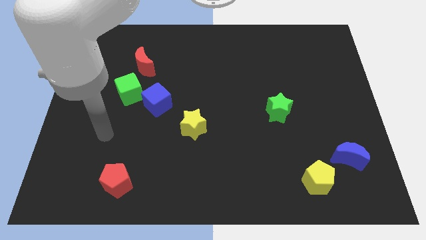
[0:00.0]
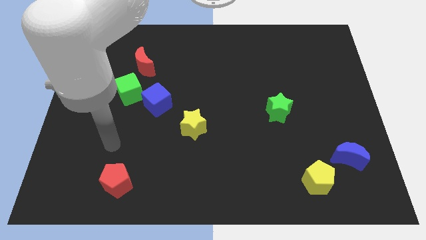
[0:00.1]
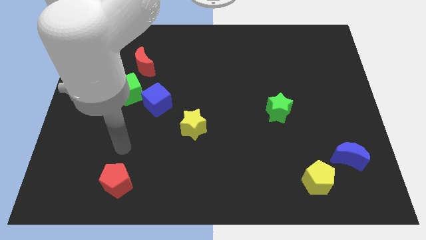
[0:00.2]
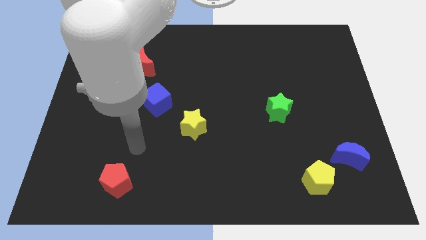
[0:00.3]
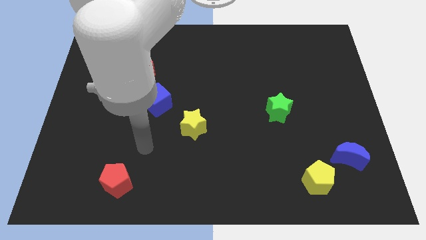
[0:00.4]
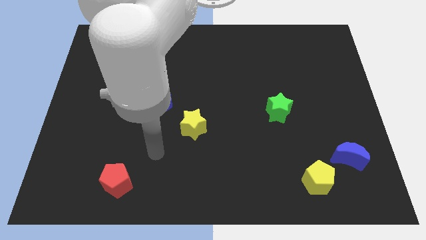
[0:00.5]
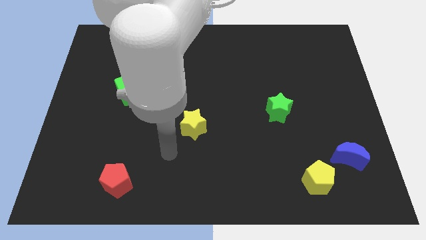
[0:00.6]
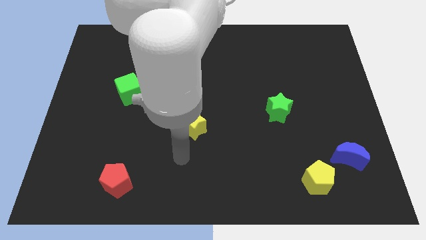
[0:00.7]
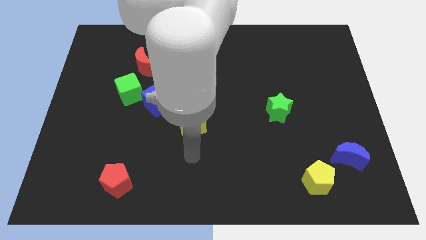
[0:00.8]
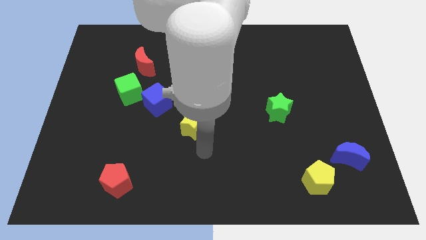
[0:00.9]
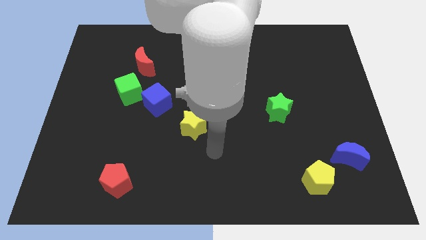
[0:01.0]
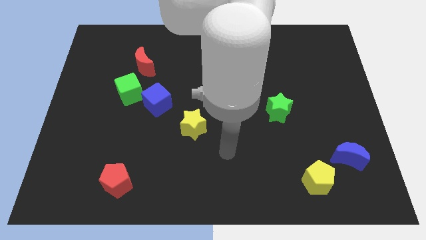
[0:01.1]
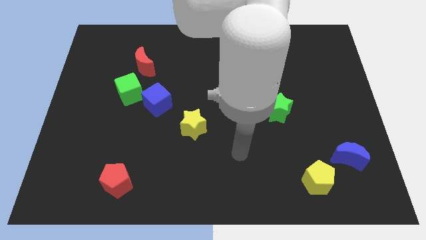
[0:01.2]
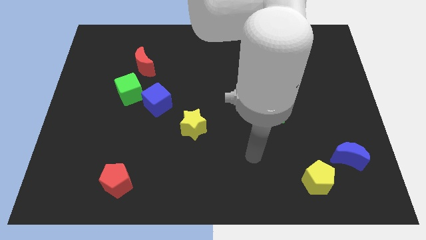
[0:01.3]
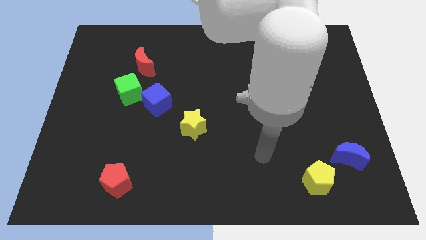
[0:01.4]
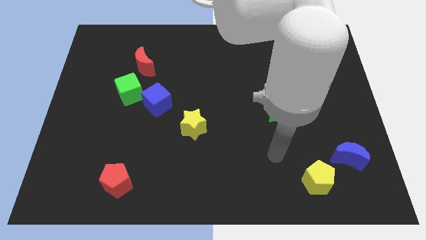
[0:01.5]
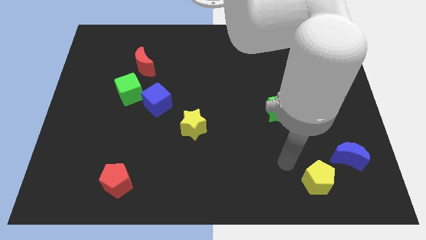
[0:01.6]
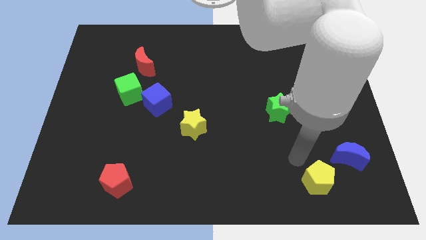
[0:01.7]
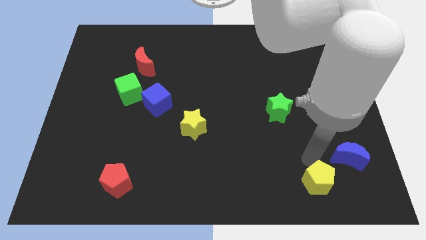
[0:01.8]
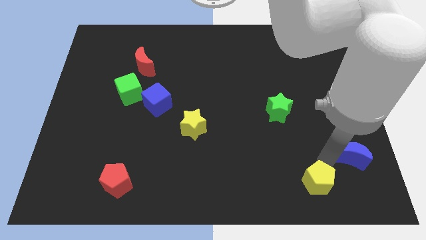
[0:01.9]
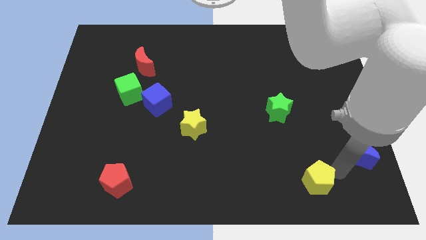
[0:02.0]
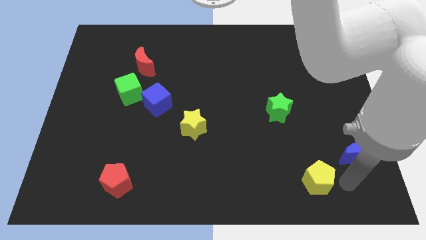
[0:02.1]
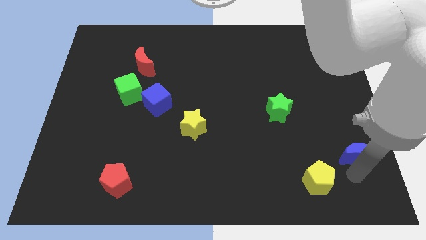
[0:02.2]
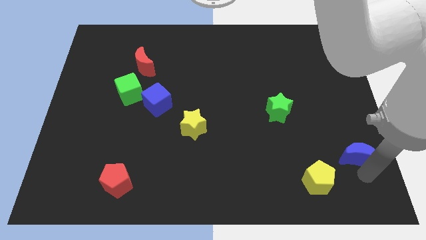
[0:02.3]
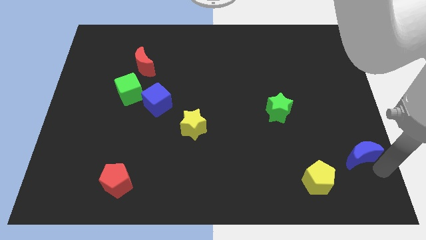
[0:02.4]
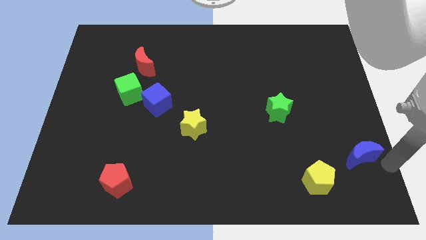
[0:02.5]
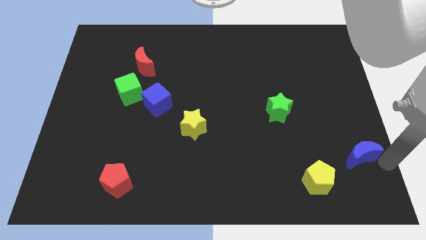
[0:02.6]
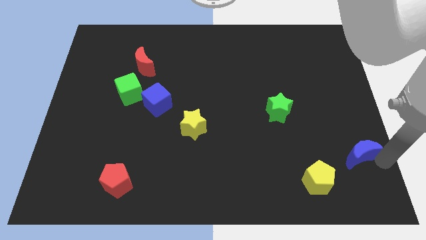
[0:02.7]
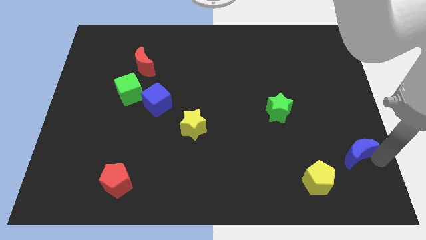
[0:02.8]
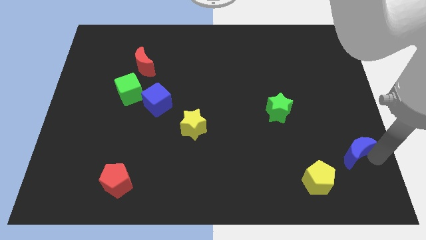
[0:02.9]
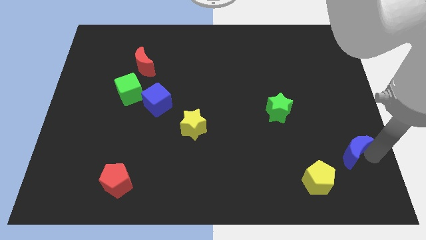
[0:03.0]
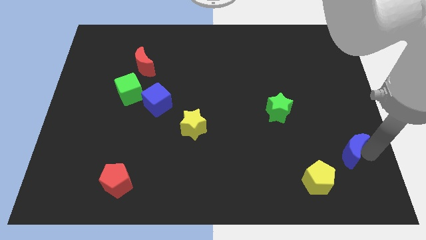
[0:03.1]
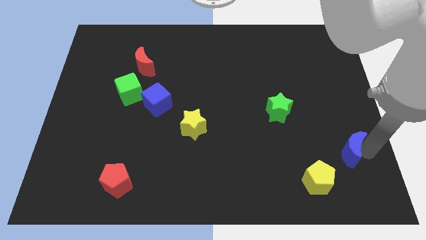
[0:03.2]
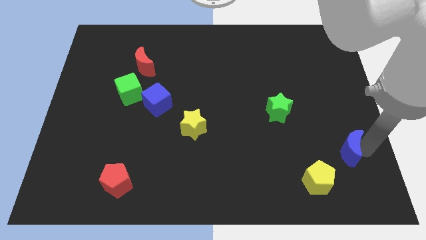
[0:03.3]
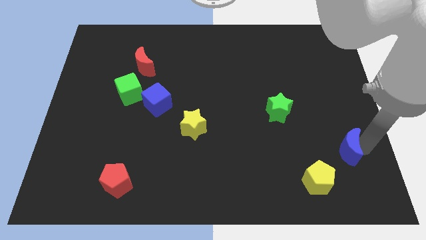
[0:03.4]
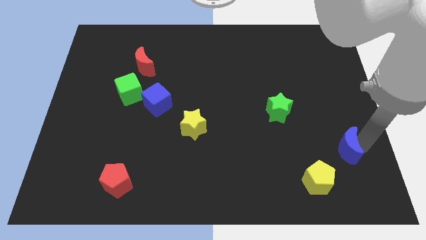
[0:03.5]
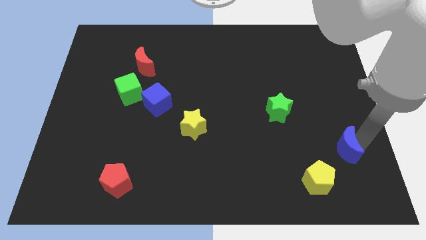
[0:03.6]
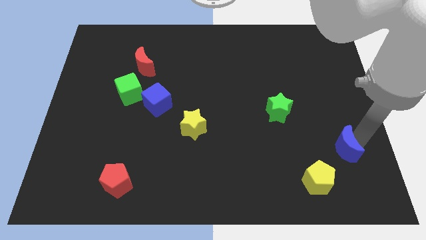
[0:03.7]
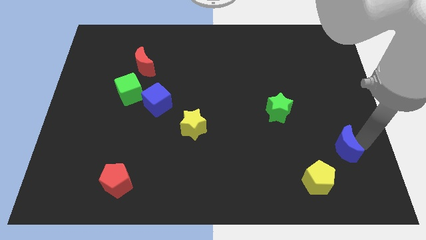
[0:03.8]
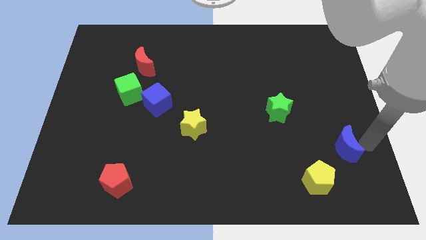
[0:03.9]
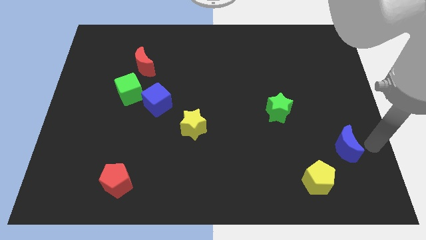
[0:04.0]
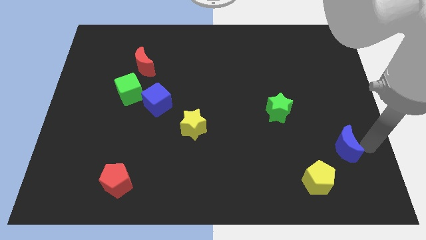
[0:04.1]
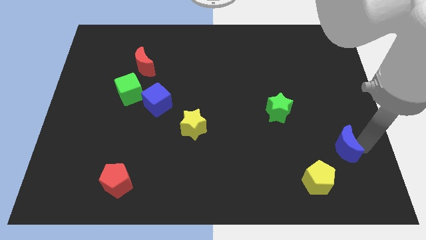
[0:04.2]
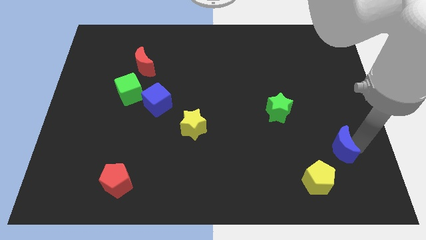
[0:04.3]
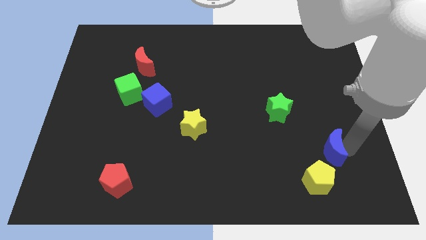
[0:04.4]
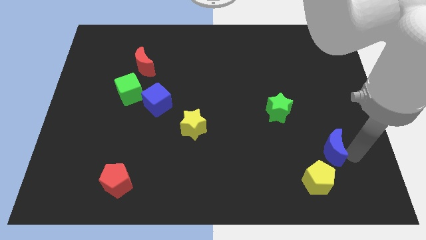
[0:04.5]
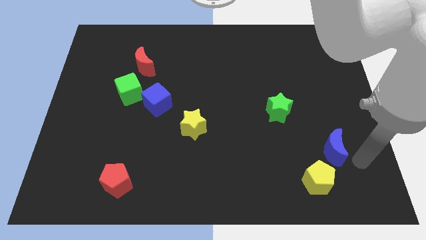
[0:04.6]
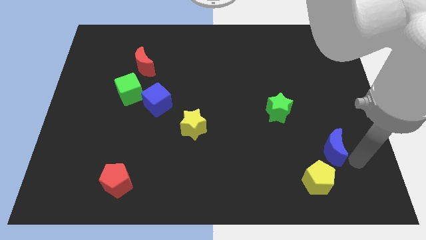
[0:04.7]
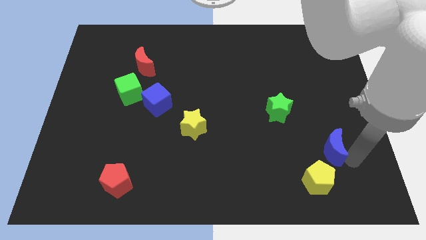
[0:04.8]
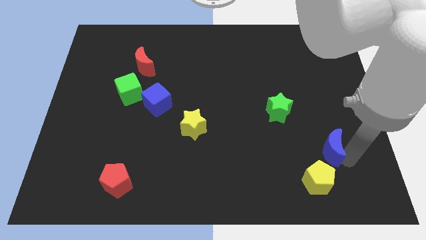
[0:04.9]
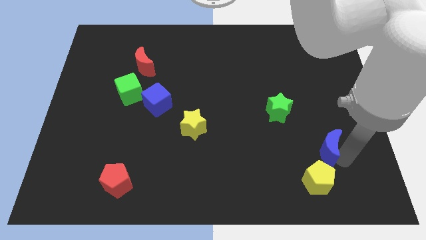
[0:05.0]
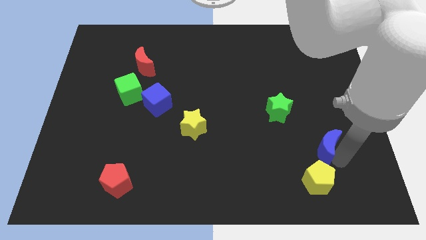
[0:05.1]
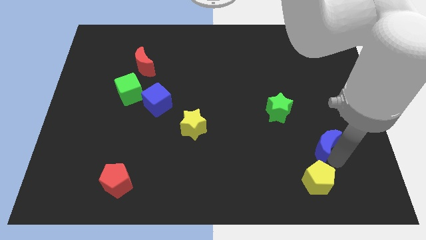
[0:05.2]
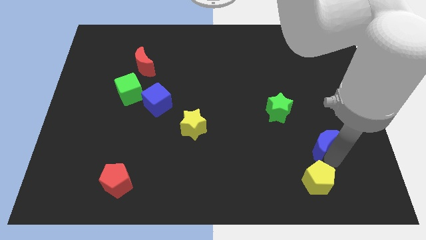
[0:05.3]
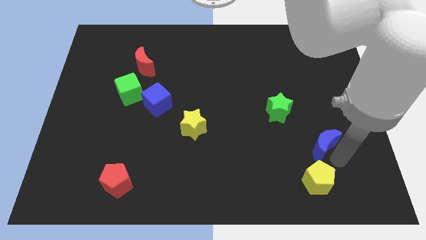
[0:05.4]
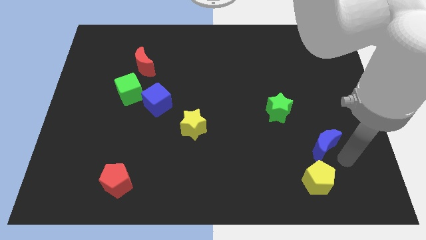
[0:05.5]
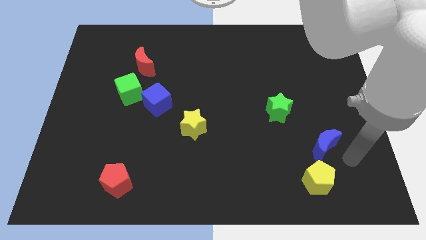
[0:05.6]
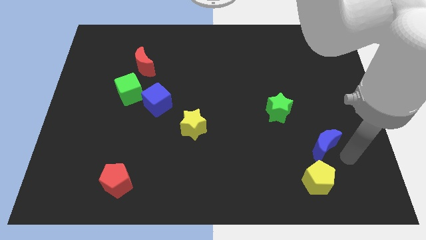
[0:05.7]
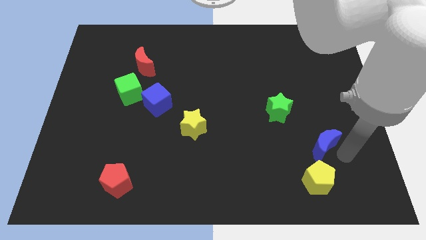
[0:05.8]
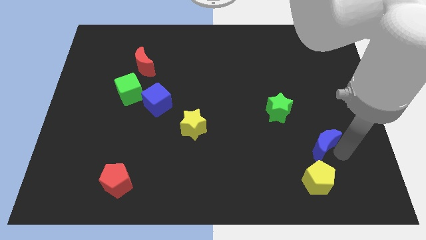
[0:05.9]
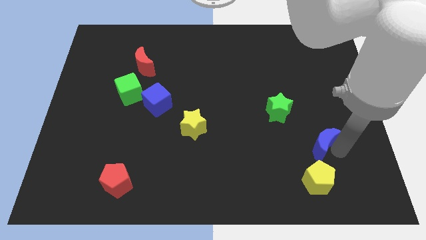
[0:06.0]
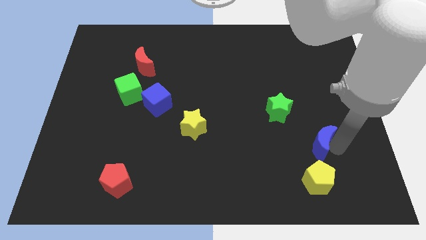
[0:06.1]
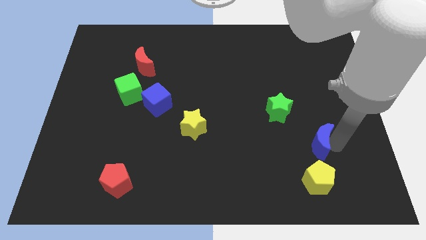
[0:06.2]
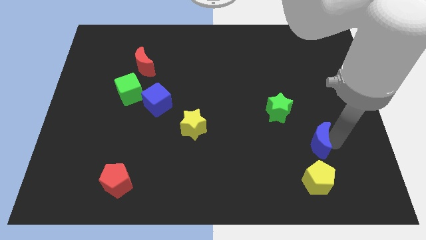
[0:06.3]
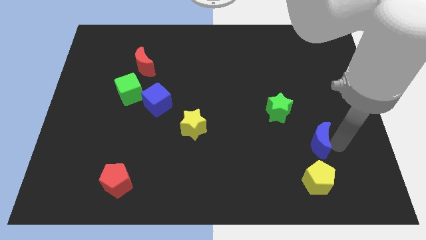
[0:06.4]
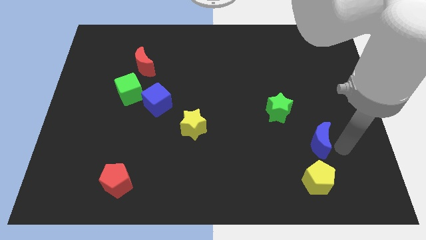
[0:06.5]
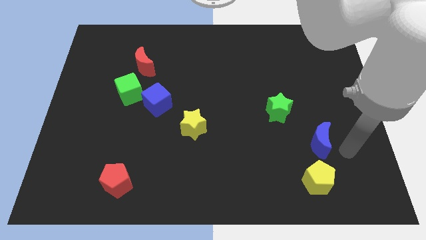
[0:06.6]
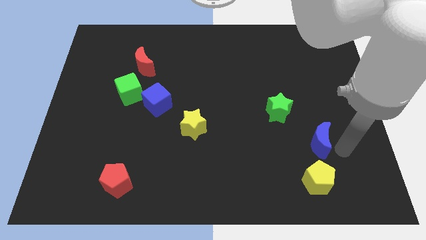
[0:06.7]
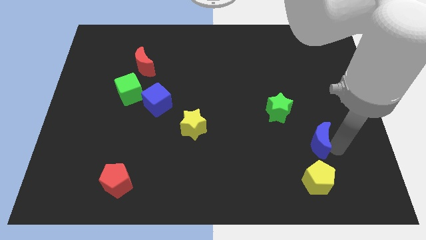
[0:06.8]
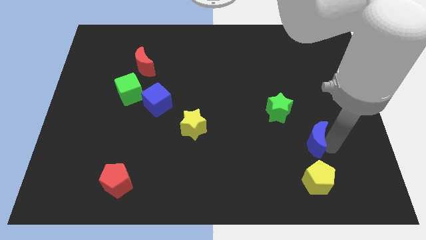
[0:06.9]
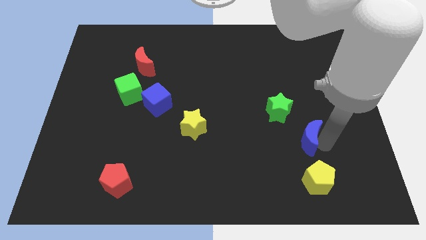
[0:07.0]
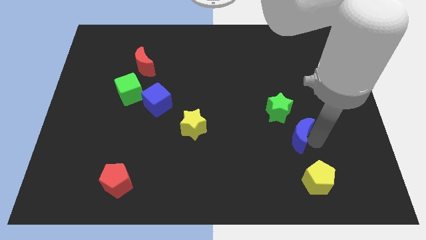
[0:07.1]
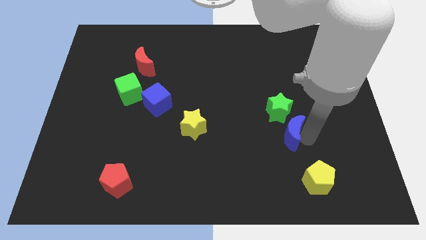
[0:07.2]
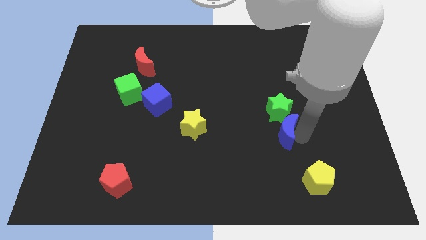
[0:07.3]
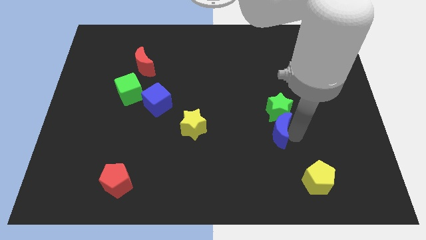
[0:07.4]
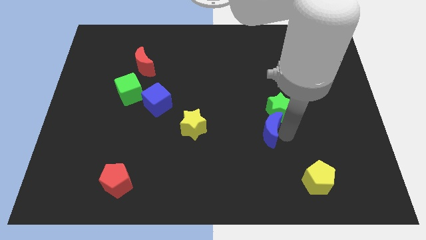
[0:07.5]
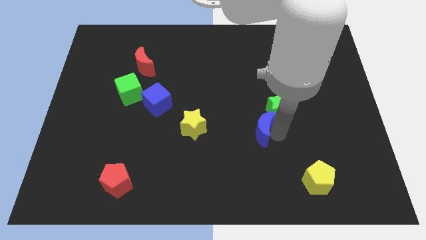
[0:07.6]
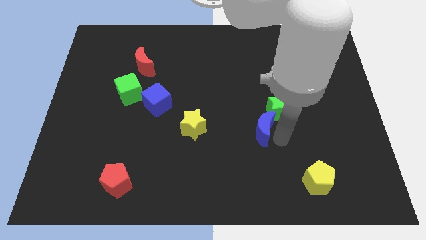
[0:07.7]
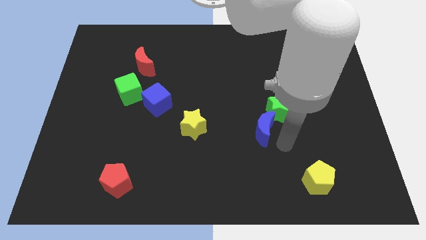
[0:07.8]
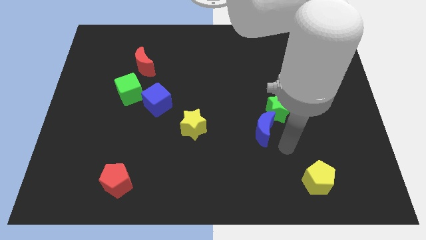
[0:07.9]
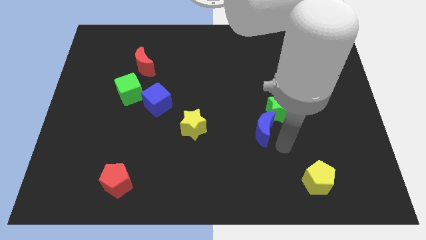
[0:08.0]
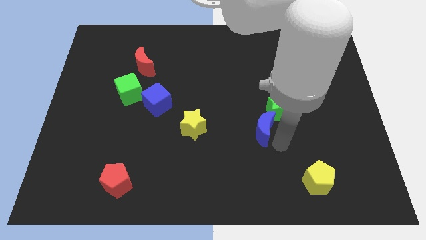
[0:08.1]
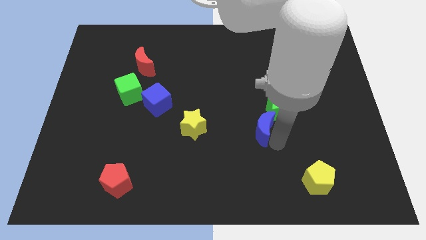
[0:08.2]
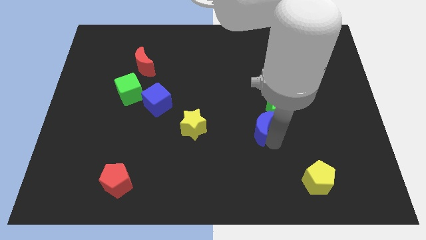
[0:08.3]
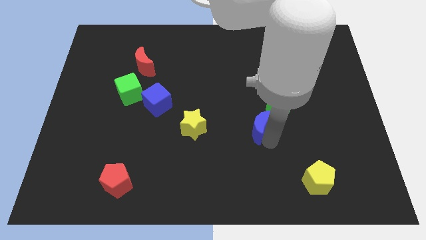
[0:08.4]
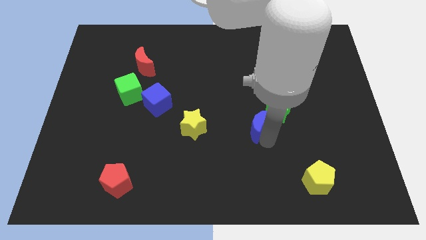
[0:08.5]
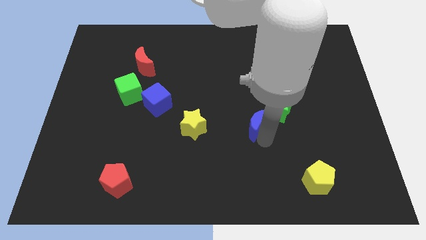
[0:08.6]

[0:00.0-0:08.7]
push the blue moon to the center
